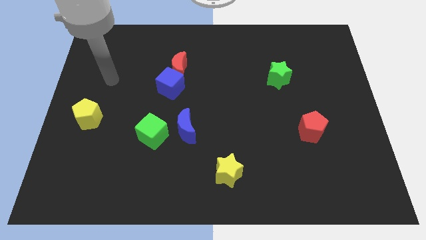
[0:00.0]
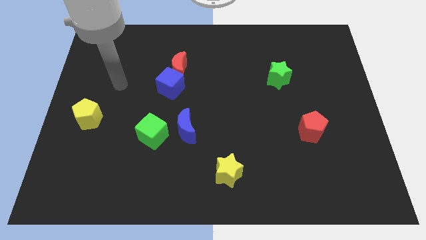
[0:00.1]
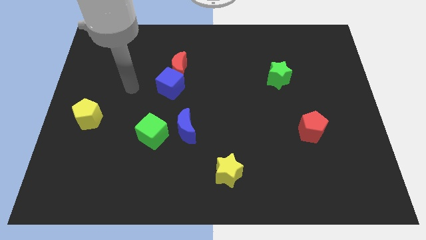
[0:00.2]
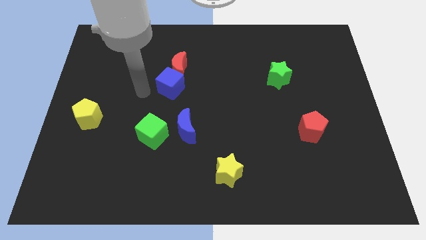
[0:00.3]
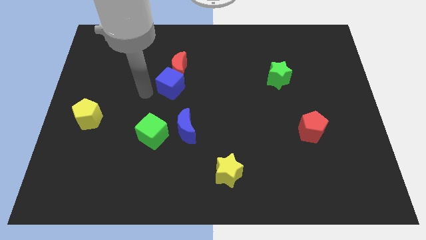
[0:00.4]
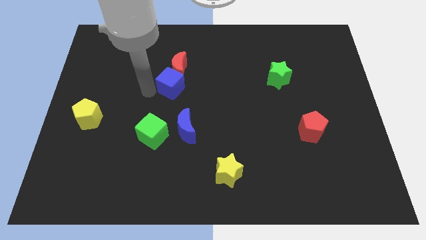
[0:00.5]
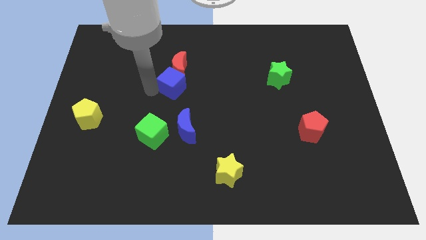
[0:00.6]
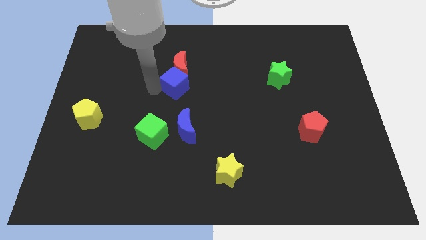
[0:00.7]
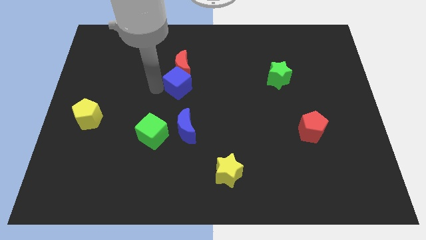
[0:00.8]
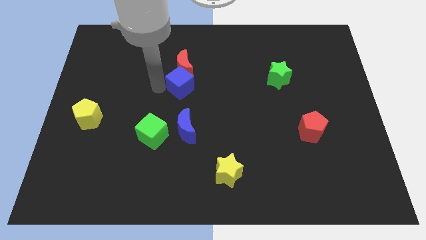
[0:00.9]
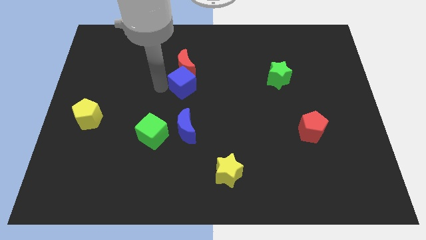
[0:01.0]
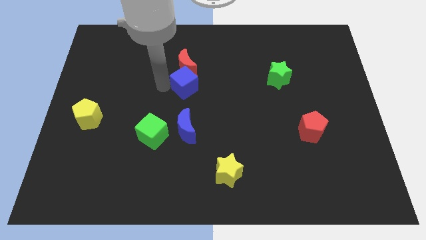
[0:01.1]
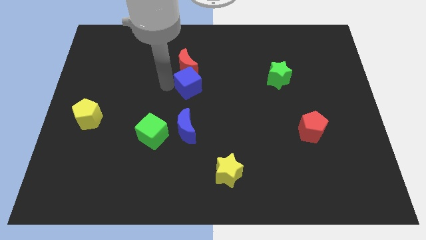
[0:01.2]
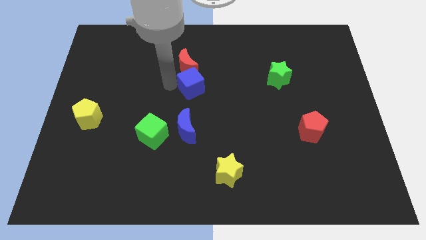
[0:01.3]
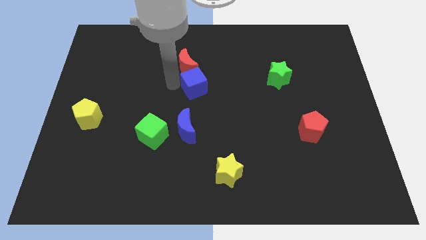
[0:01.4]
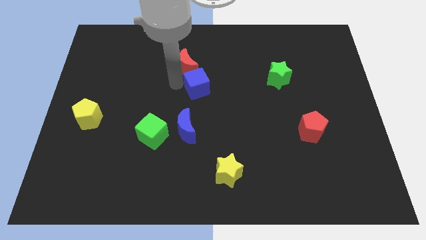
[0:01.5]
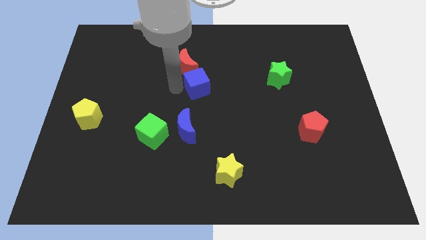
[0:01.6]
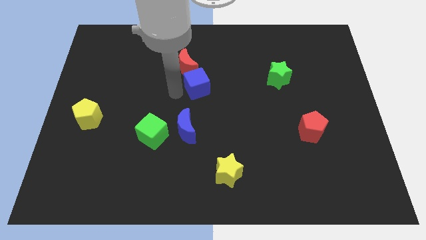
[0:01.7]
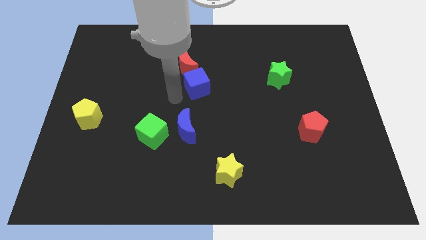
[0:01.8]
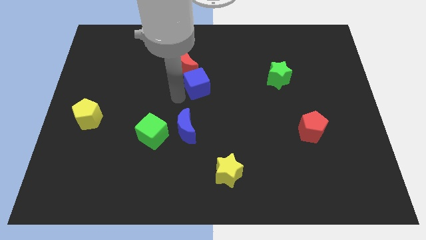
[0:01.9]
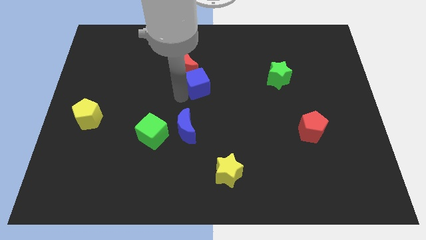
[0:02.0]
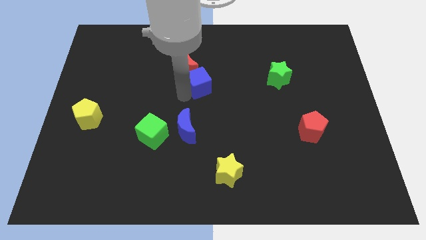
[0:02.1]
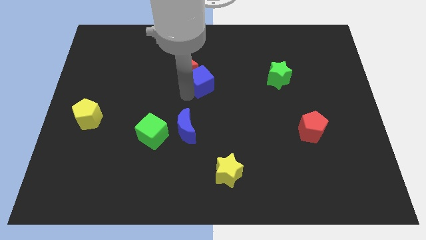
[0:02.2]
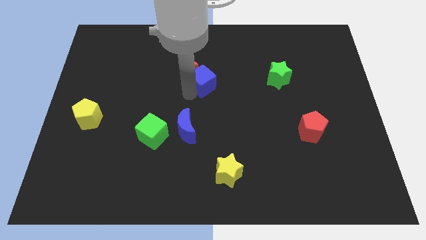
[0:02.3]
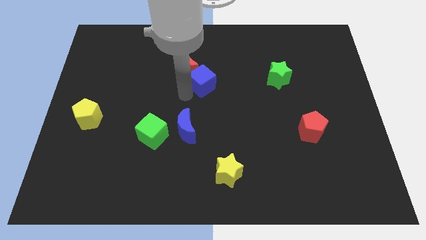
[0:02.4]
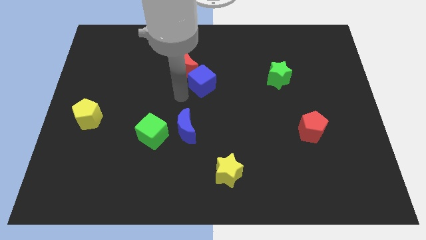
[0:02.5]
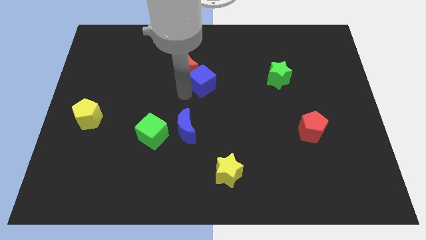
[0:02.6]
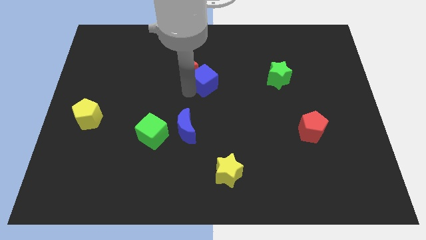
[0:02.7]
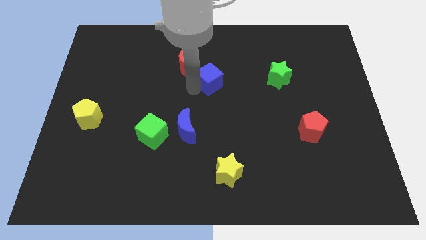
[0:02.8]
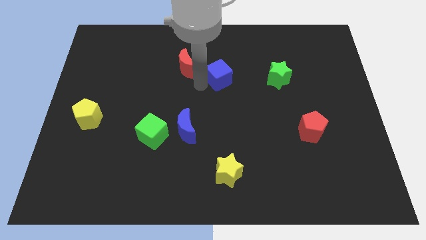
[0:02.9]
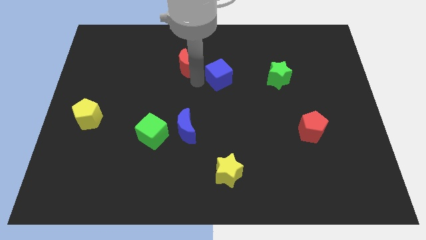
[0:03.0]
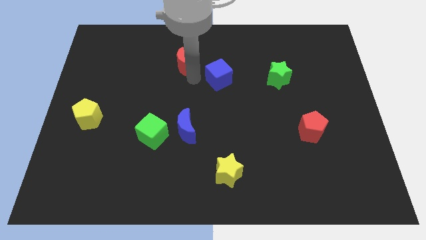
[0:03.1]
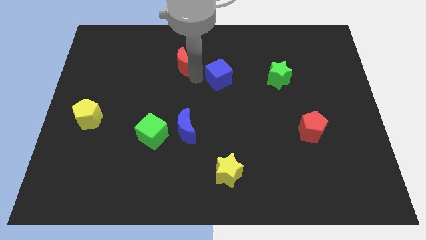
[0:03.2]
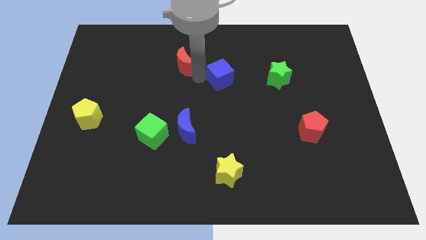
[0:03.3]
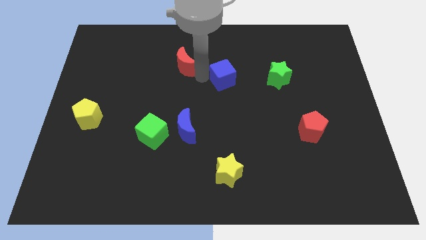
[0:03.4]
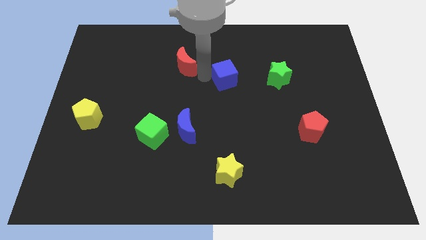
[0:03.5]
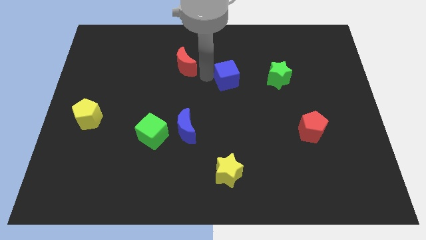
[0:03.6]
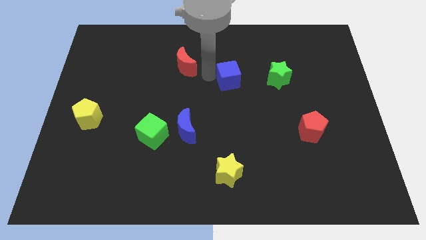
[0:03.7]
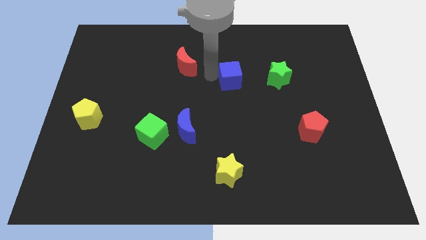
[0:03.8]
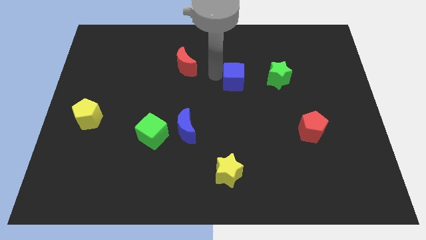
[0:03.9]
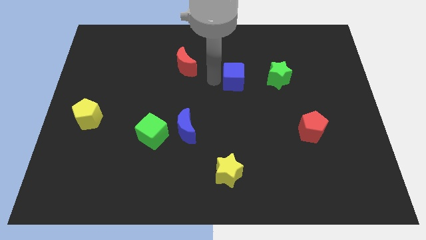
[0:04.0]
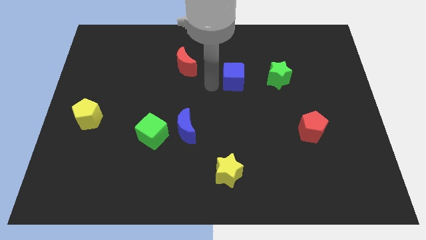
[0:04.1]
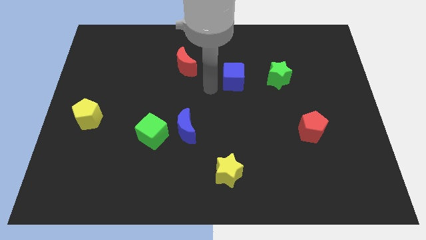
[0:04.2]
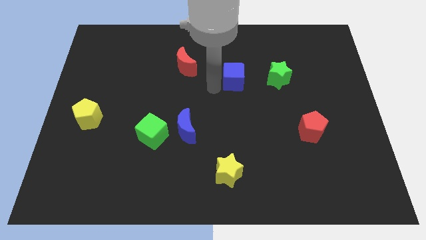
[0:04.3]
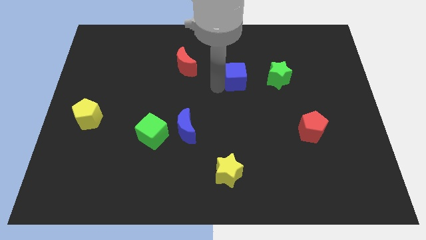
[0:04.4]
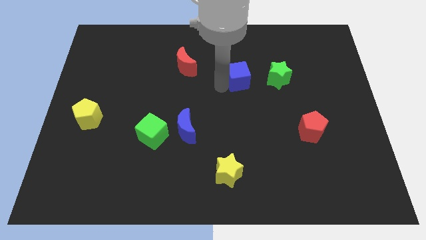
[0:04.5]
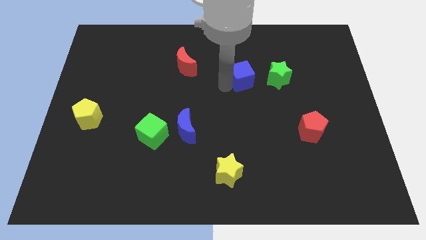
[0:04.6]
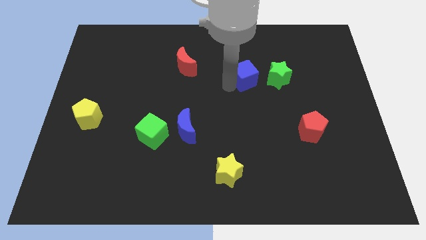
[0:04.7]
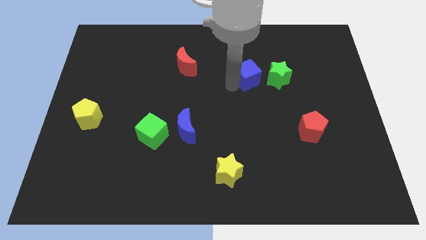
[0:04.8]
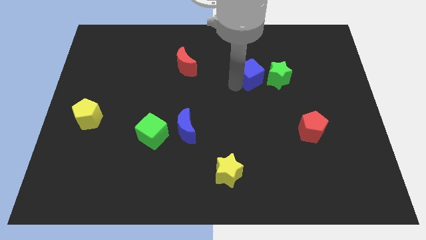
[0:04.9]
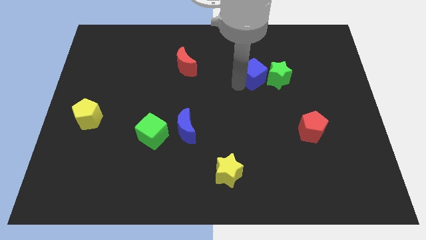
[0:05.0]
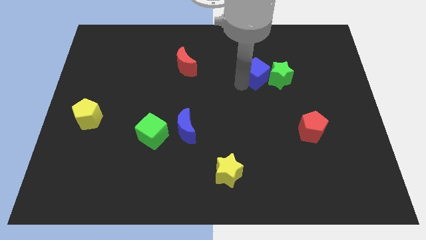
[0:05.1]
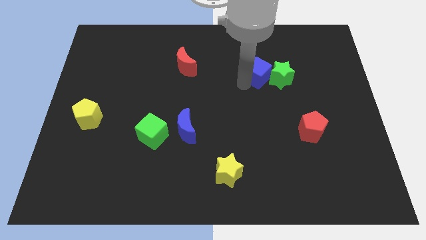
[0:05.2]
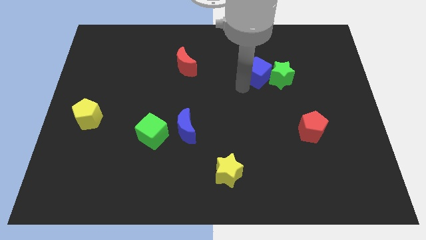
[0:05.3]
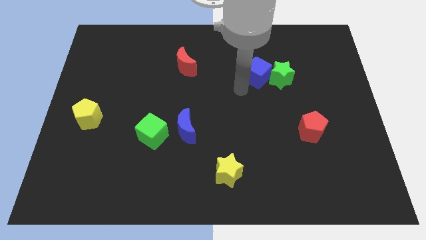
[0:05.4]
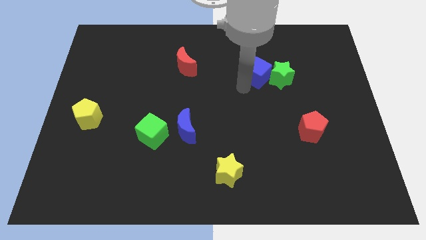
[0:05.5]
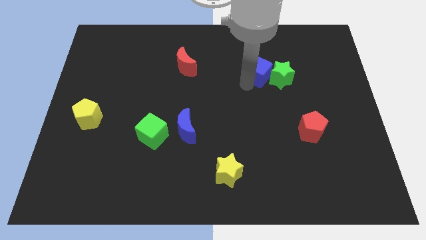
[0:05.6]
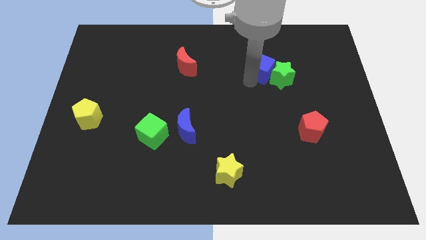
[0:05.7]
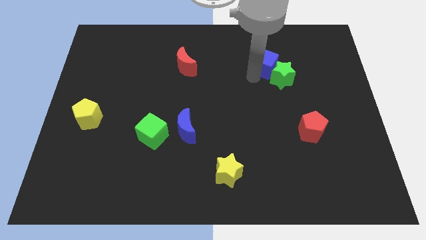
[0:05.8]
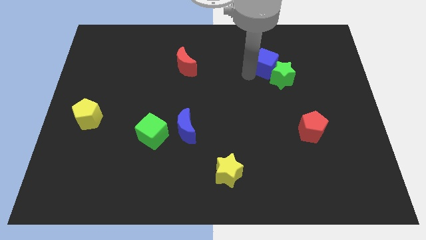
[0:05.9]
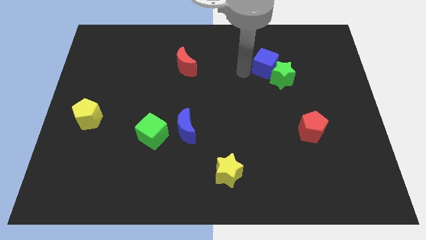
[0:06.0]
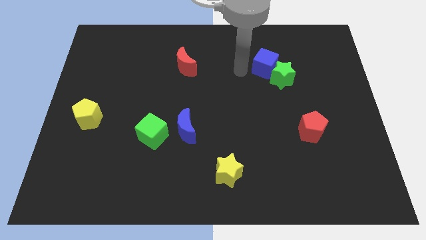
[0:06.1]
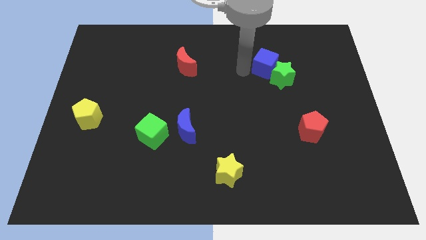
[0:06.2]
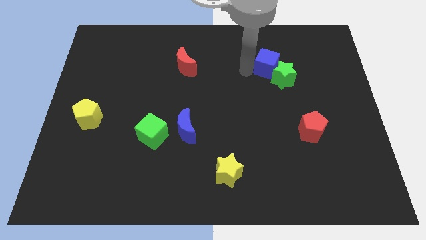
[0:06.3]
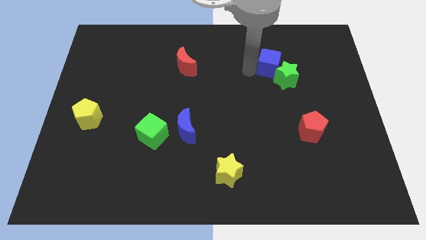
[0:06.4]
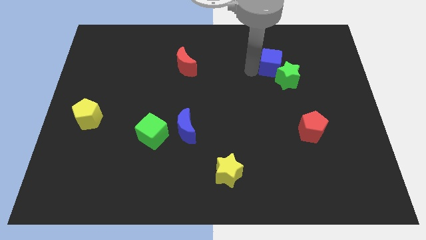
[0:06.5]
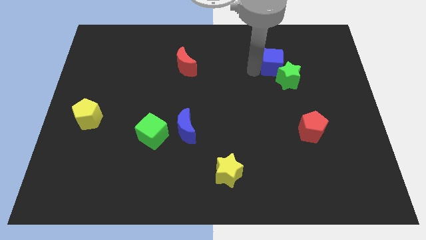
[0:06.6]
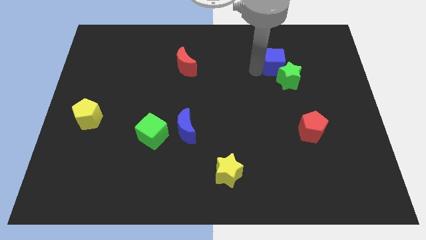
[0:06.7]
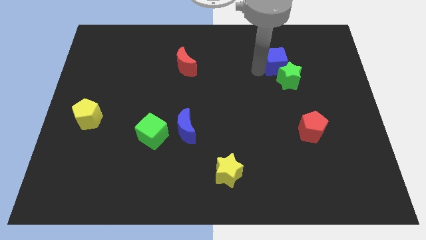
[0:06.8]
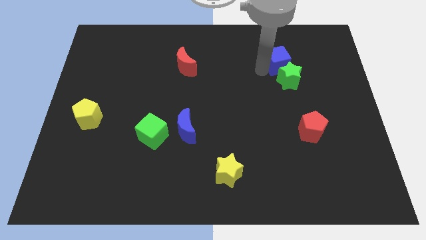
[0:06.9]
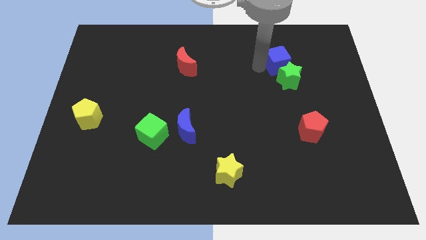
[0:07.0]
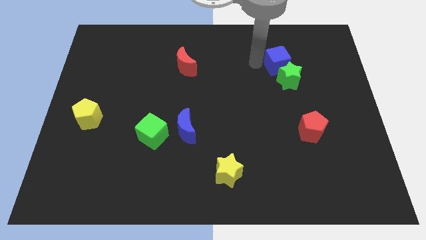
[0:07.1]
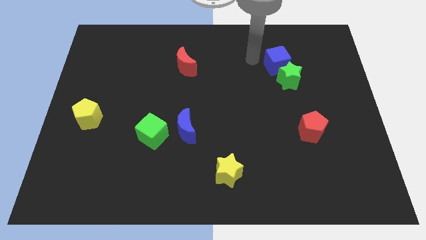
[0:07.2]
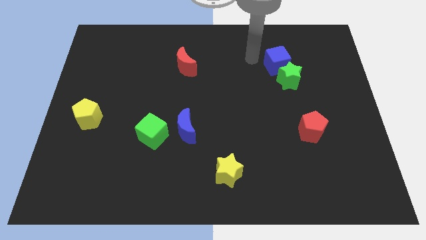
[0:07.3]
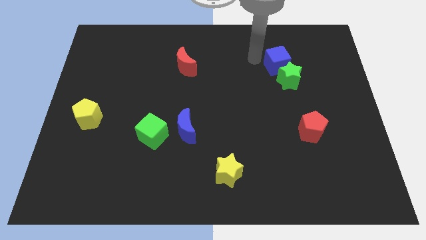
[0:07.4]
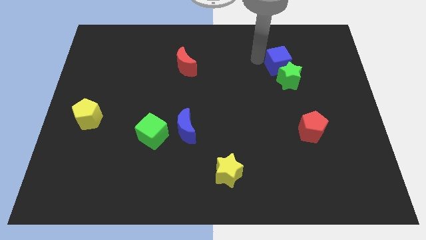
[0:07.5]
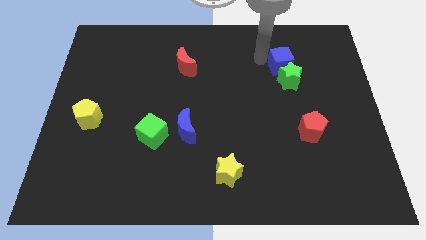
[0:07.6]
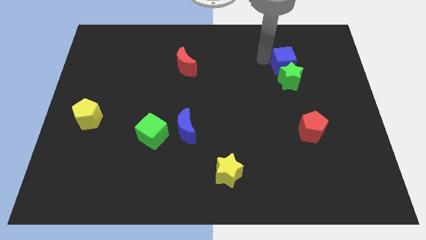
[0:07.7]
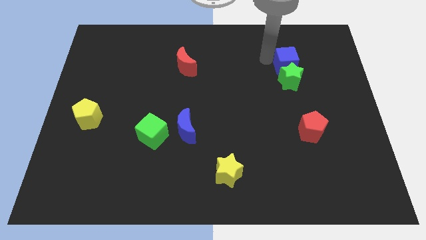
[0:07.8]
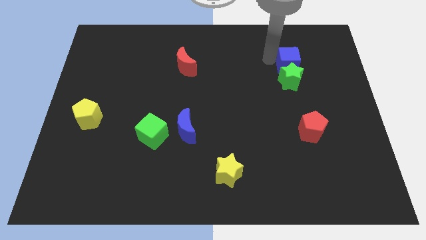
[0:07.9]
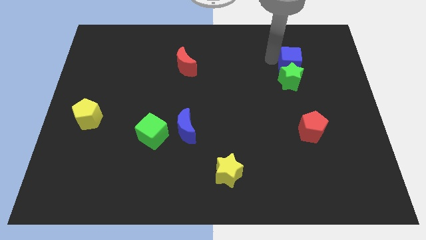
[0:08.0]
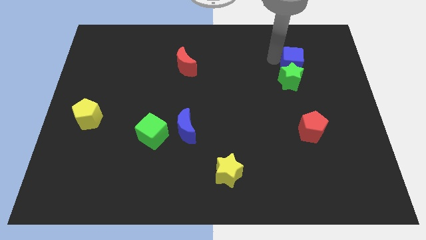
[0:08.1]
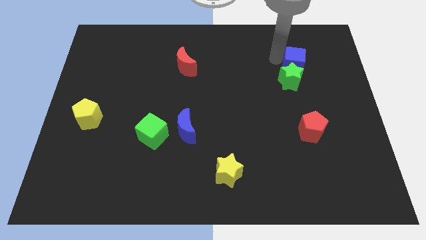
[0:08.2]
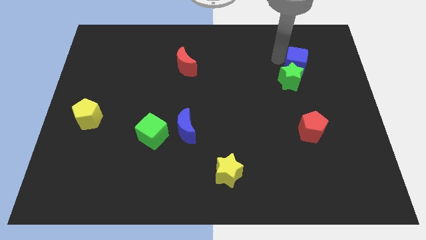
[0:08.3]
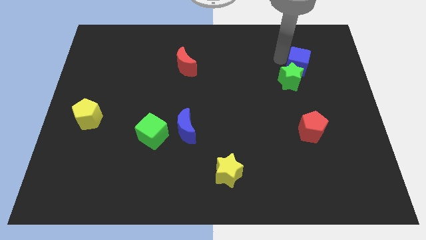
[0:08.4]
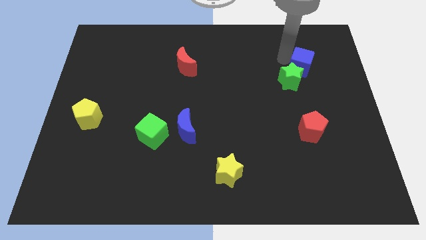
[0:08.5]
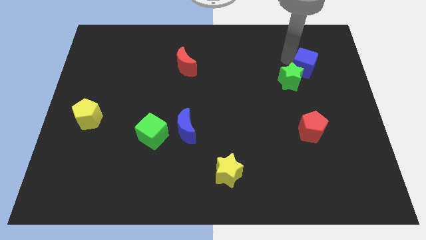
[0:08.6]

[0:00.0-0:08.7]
put the blue cube just right of the green star
